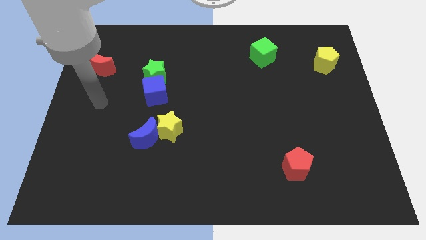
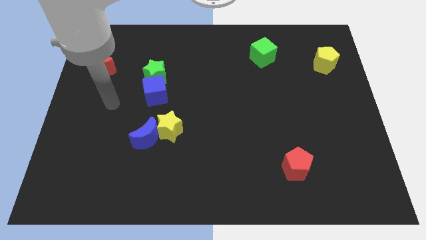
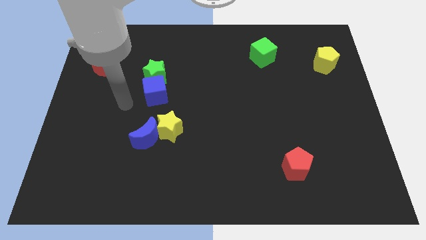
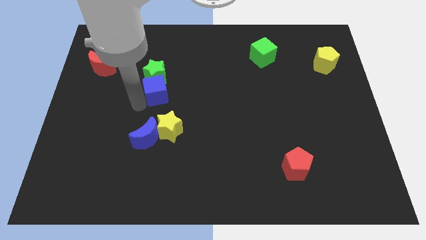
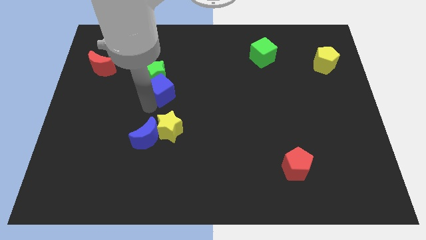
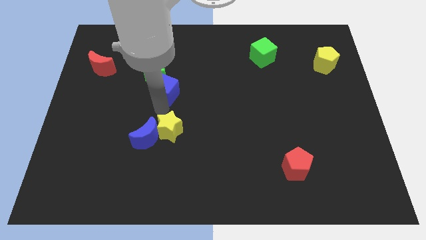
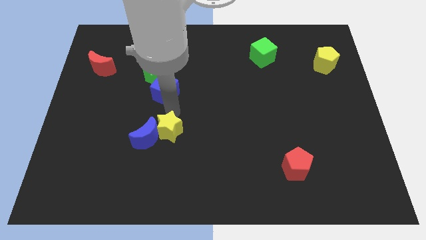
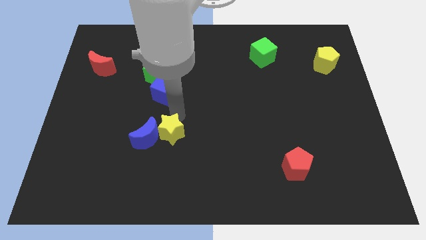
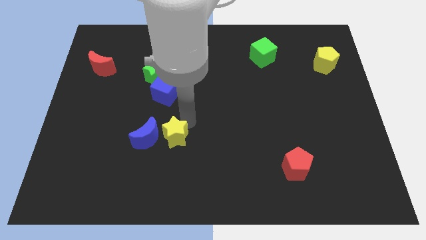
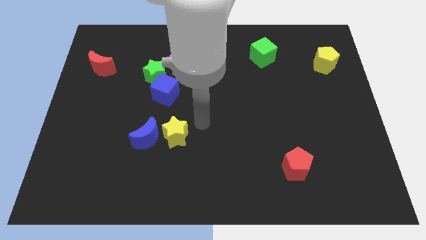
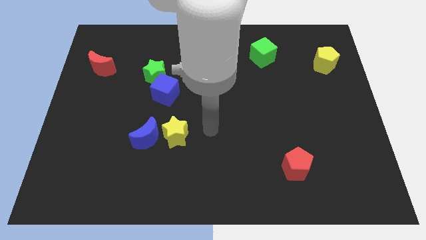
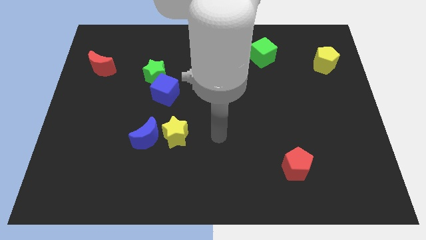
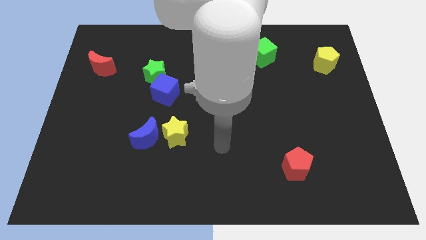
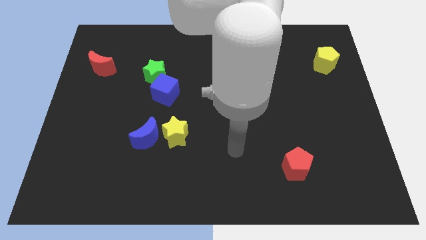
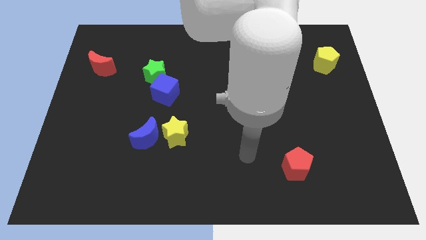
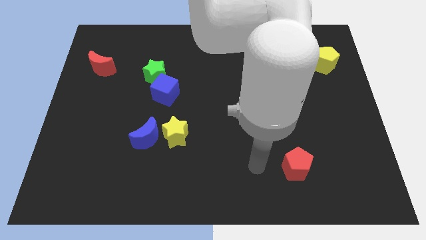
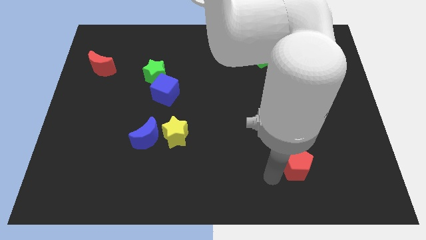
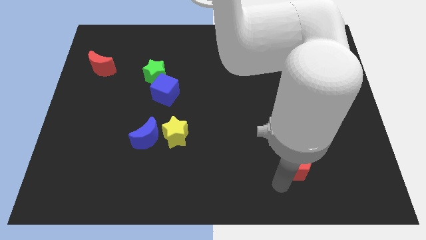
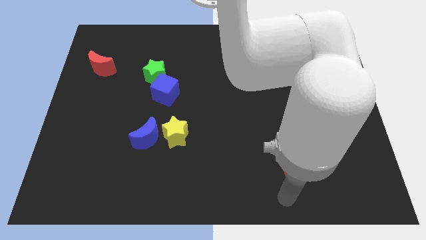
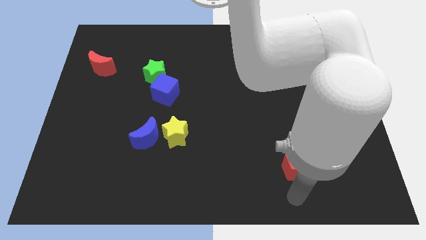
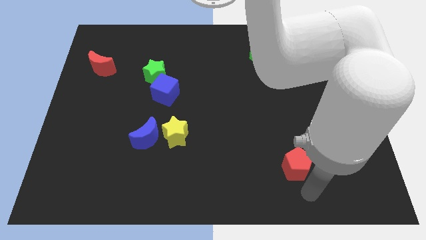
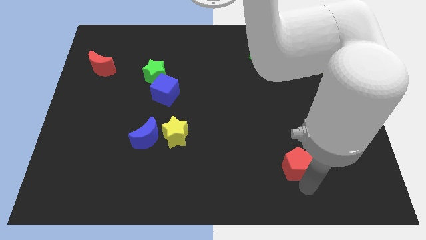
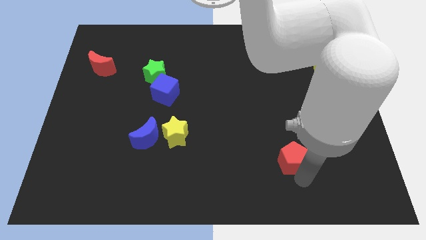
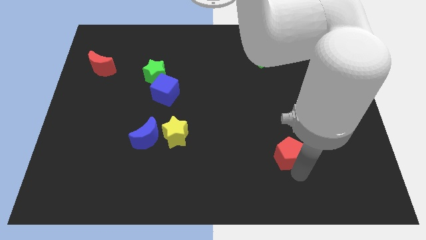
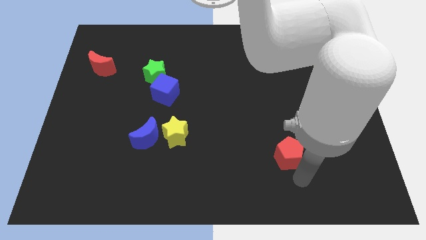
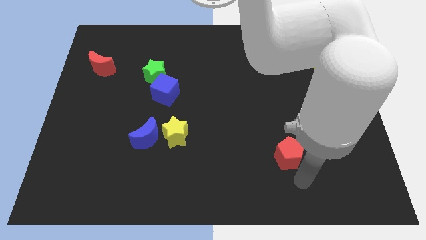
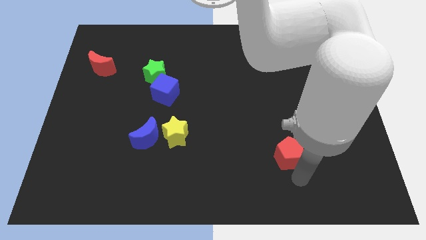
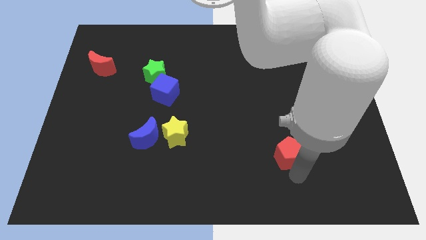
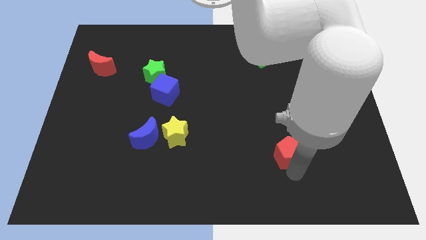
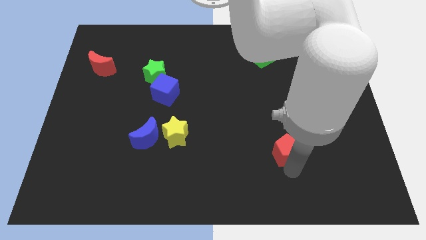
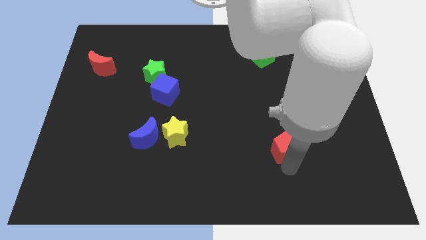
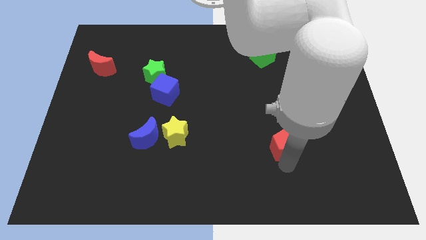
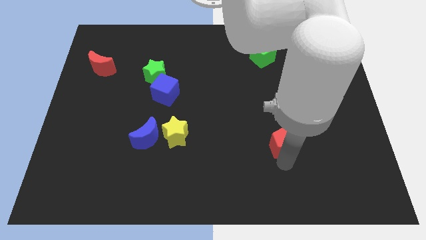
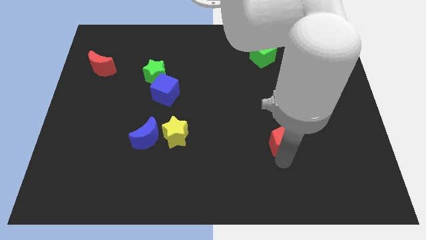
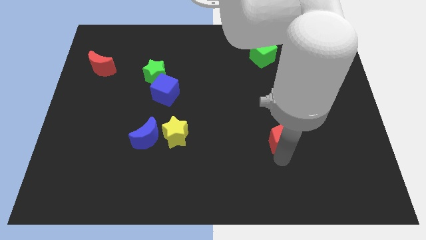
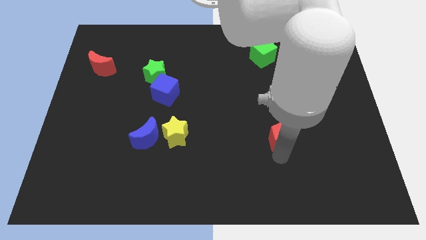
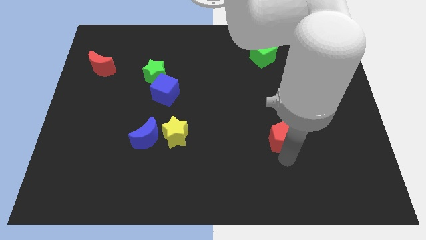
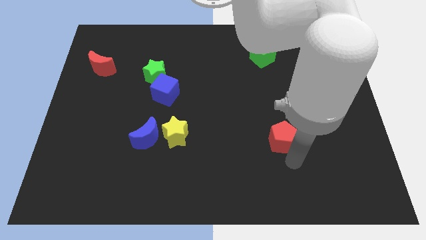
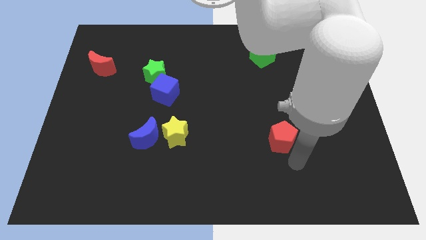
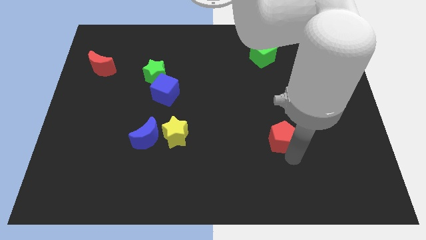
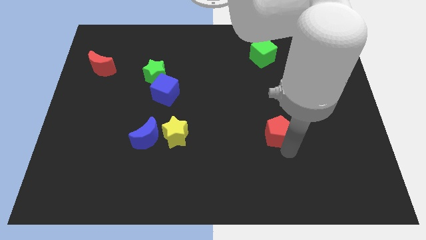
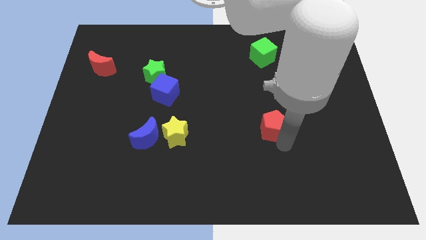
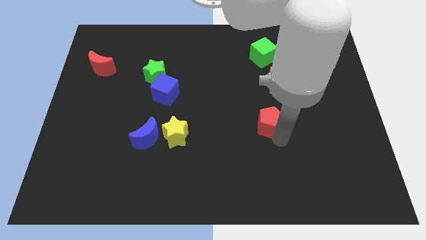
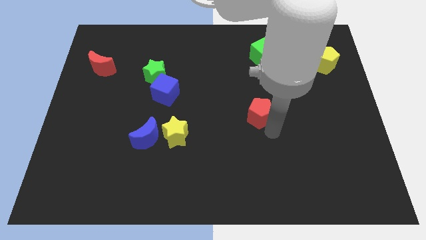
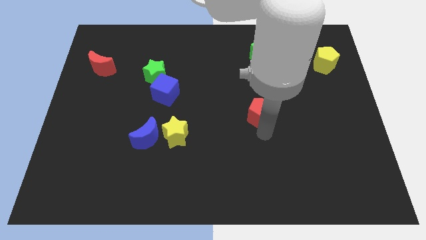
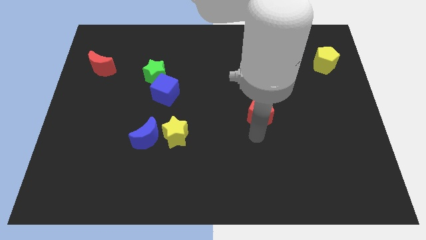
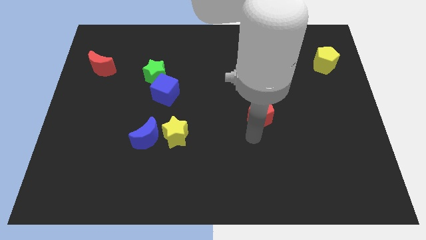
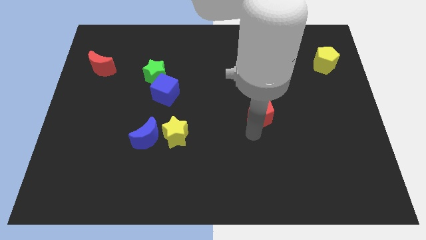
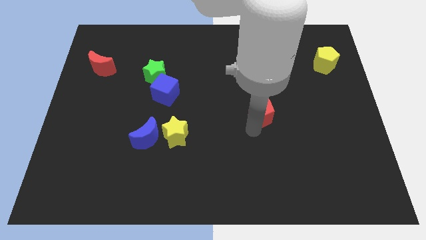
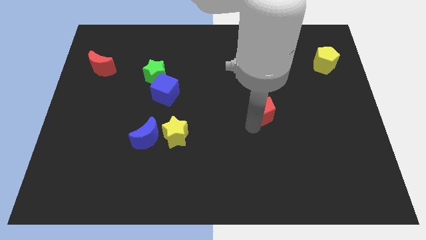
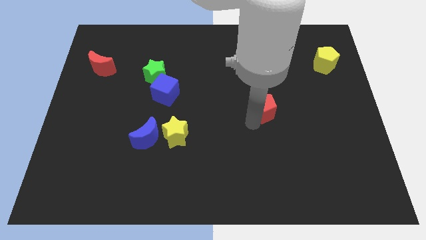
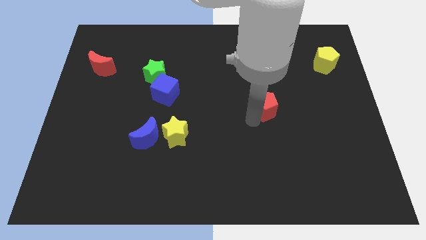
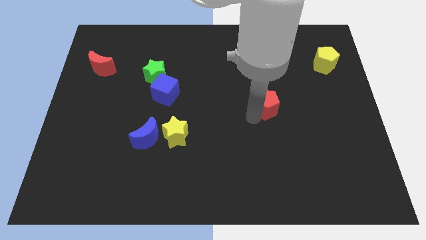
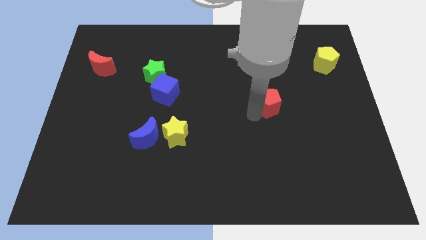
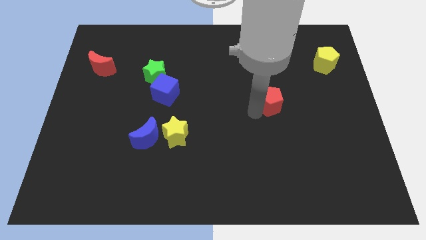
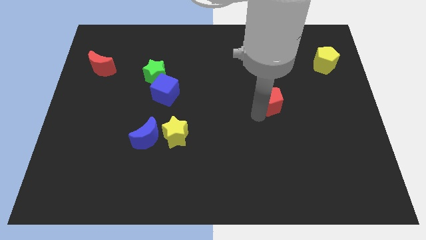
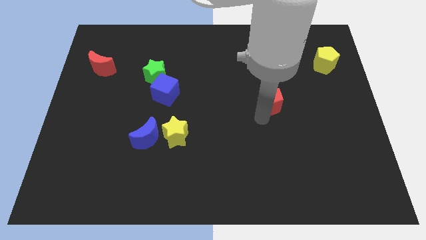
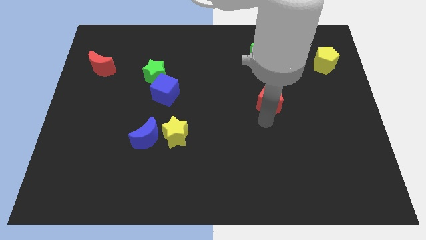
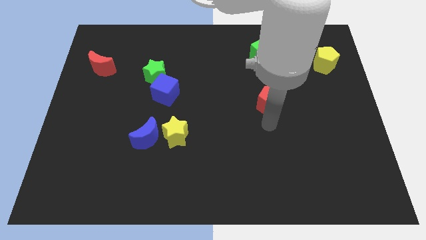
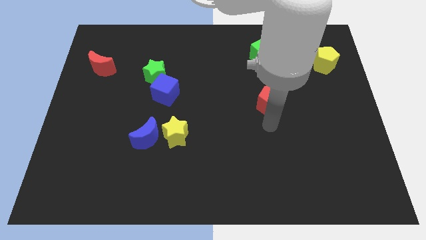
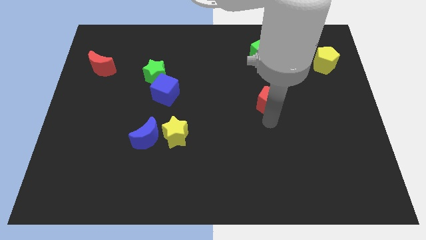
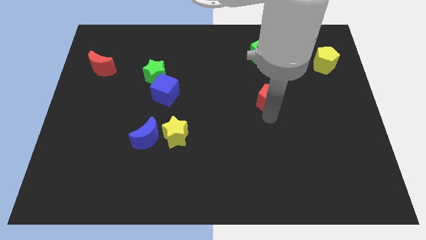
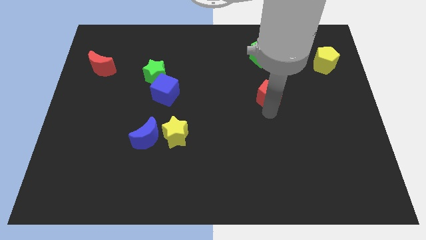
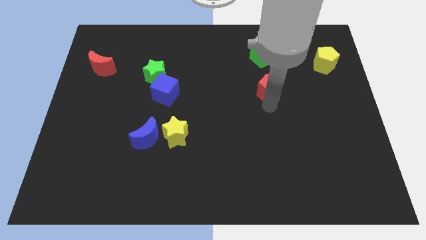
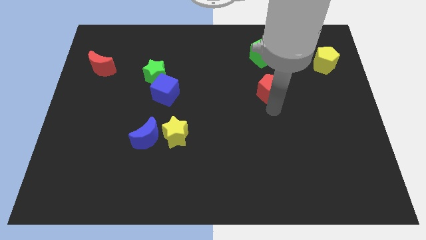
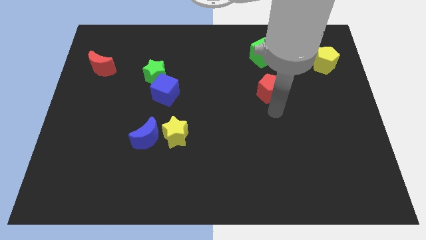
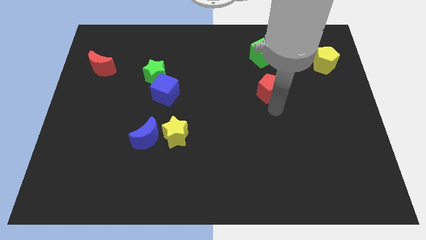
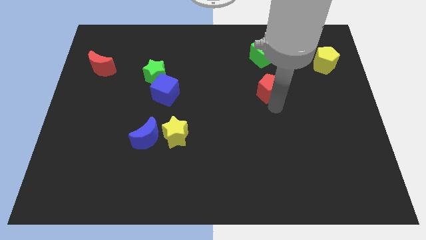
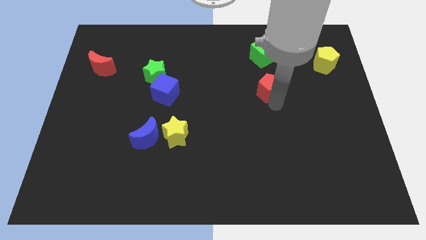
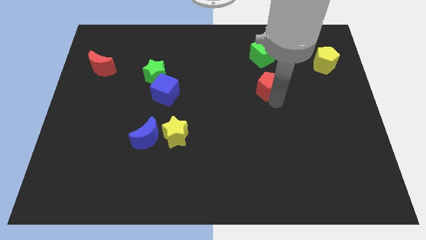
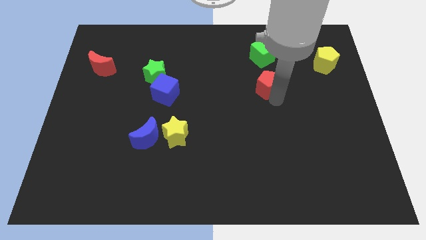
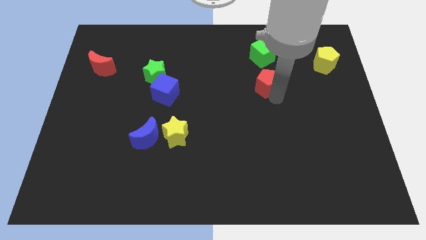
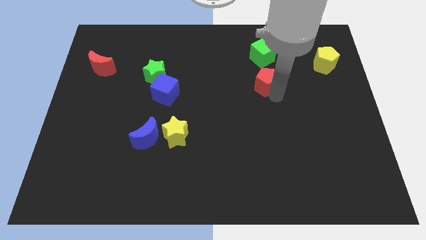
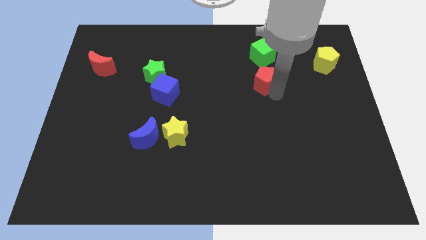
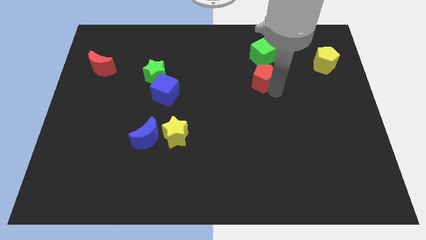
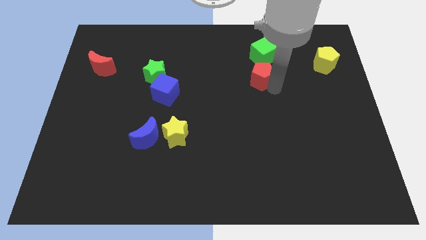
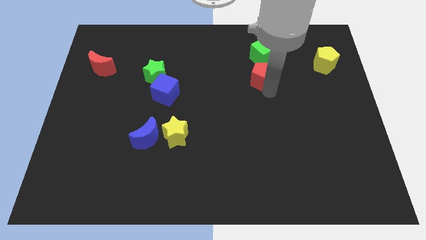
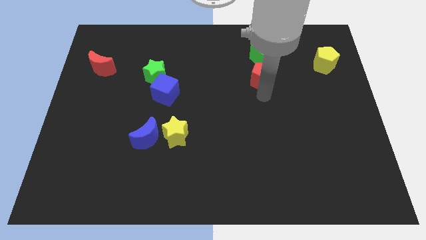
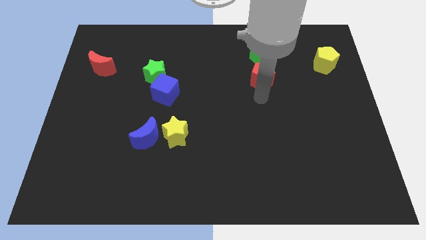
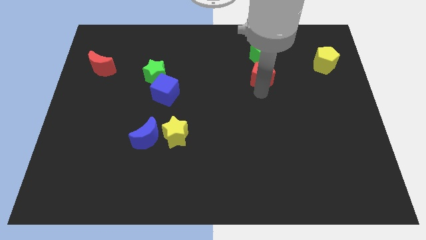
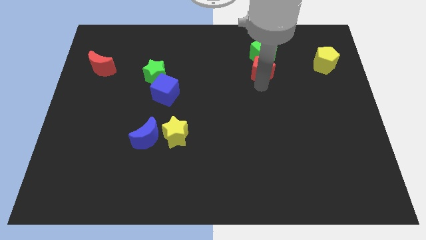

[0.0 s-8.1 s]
move the red pentagon close to the green cube
